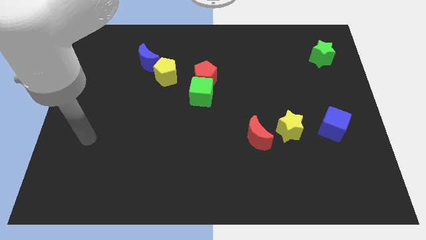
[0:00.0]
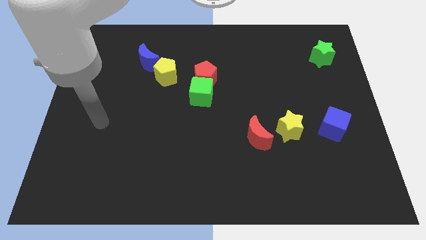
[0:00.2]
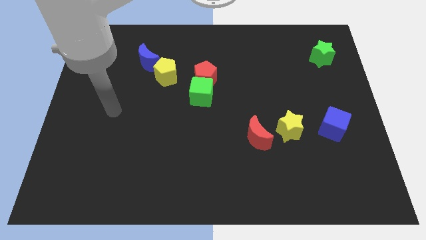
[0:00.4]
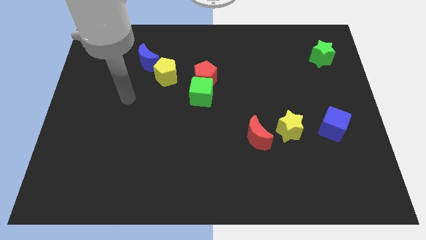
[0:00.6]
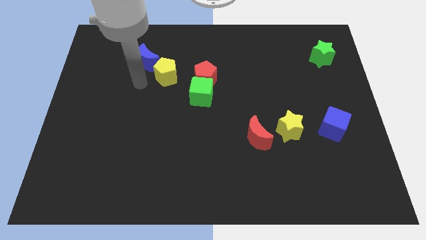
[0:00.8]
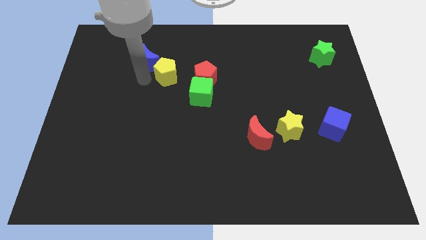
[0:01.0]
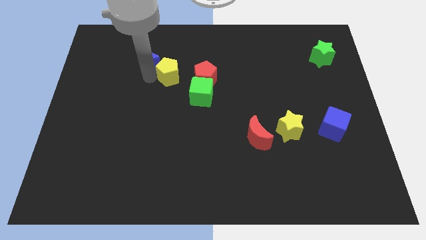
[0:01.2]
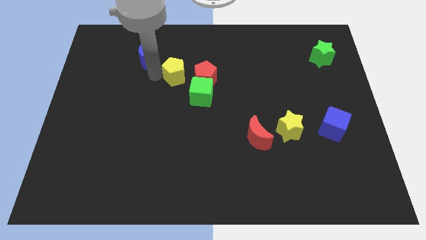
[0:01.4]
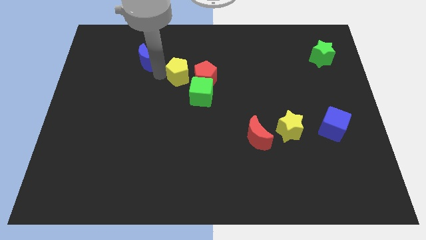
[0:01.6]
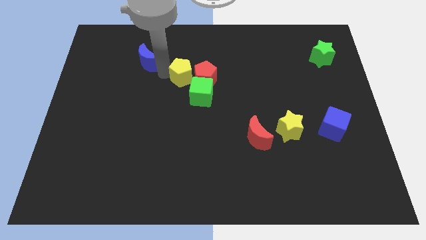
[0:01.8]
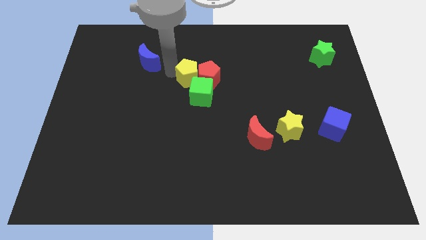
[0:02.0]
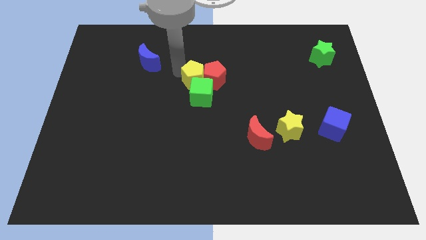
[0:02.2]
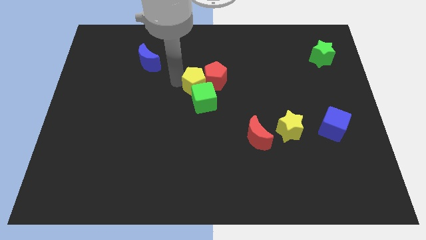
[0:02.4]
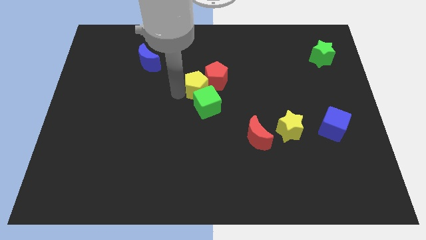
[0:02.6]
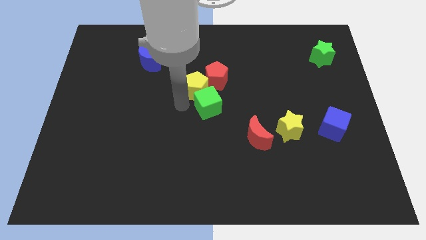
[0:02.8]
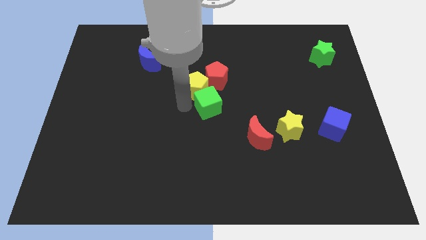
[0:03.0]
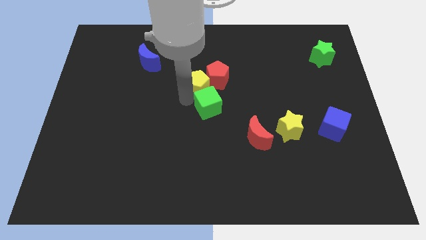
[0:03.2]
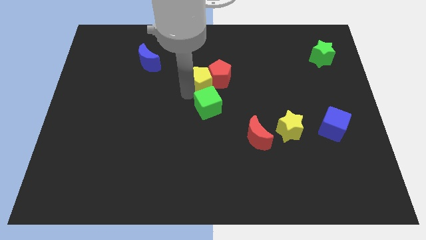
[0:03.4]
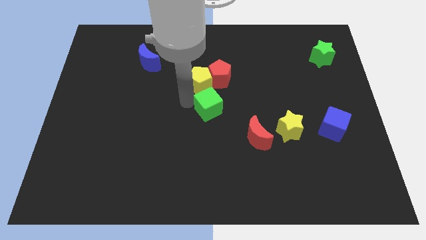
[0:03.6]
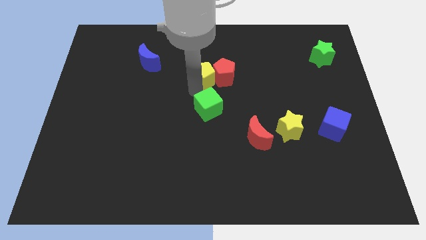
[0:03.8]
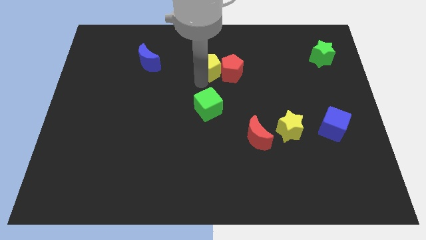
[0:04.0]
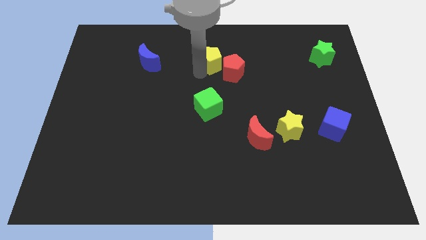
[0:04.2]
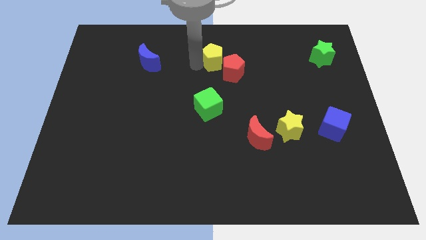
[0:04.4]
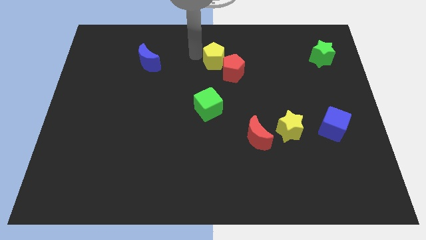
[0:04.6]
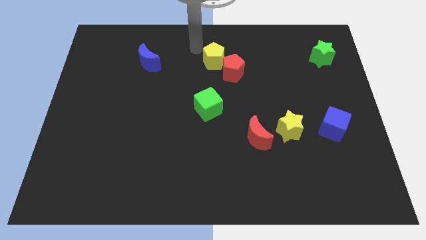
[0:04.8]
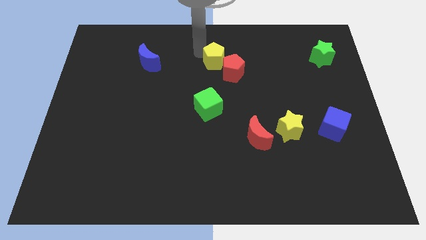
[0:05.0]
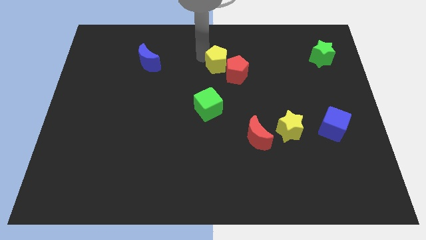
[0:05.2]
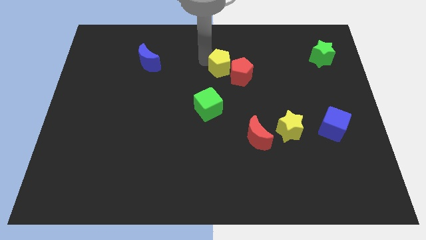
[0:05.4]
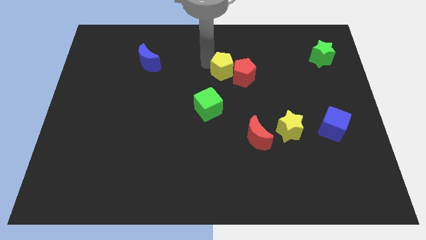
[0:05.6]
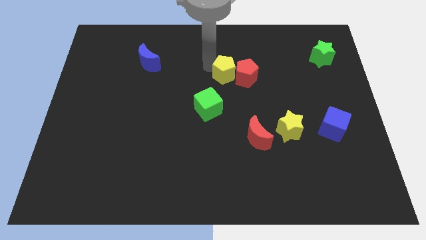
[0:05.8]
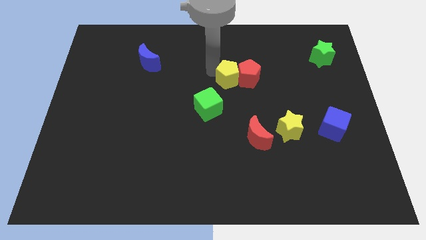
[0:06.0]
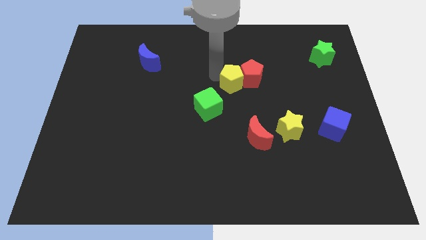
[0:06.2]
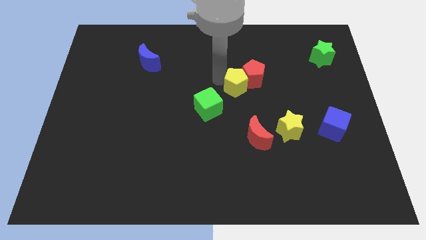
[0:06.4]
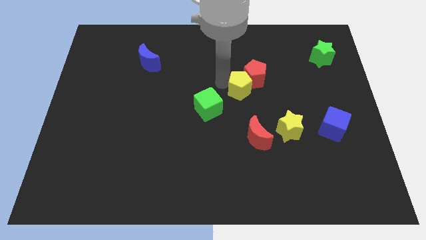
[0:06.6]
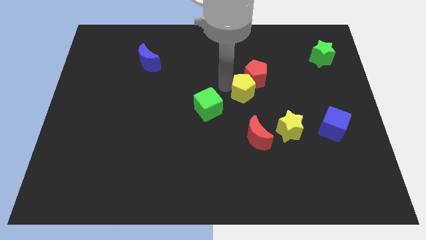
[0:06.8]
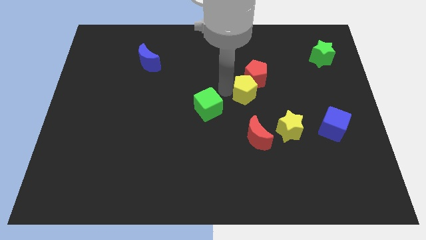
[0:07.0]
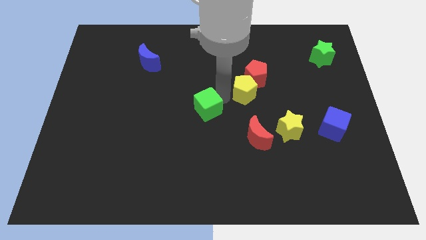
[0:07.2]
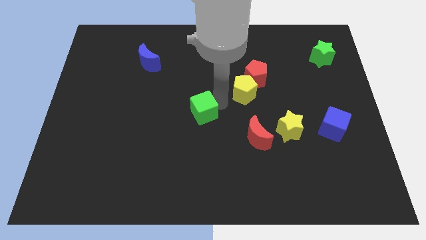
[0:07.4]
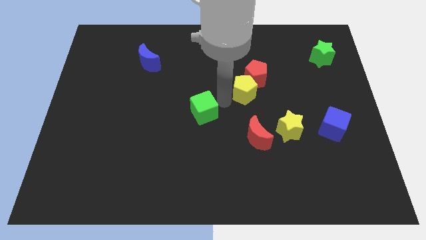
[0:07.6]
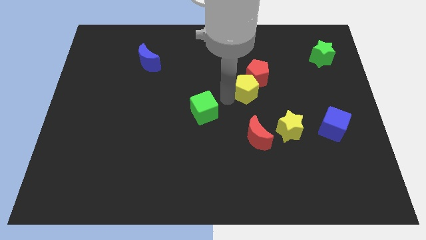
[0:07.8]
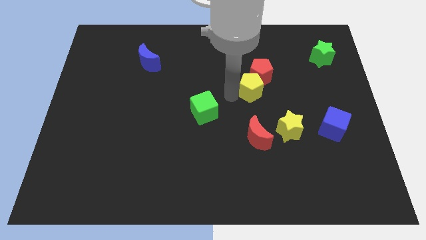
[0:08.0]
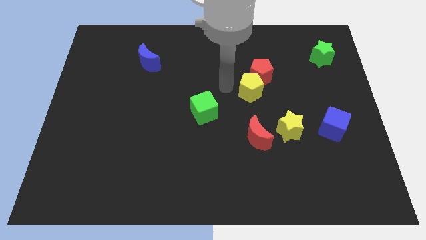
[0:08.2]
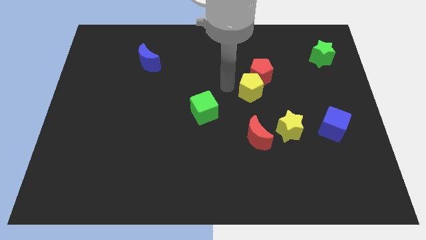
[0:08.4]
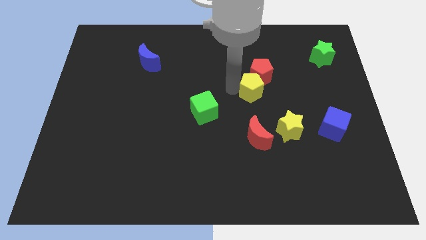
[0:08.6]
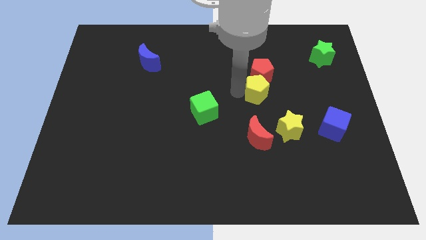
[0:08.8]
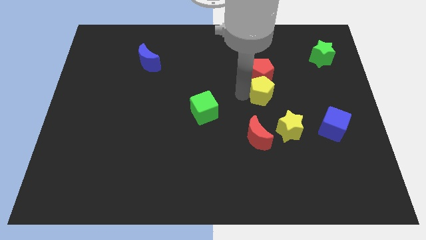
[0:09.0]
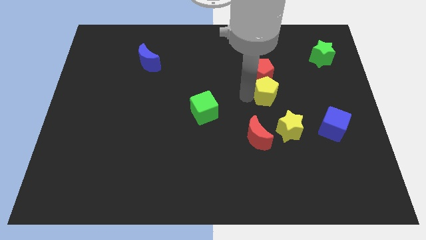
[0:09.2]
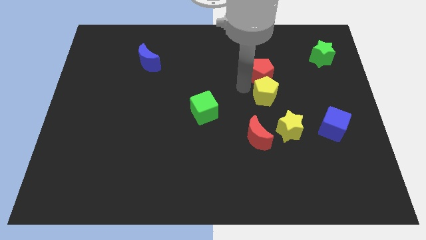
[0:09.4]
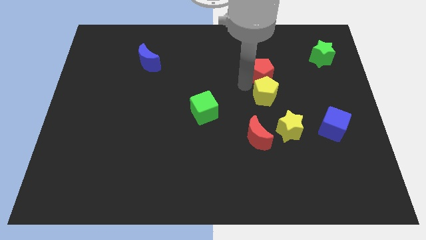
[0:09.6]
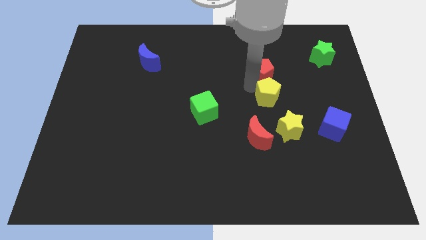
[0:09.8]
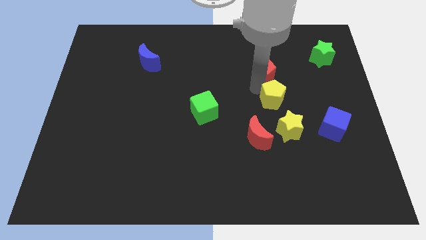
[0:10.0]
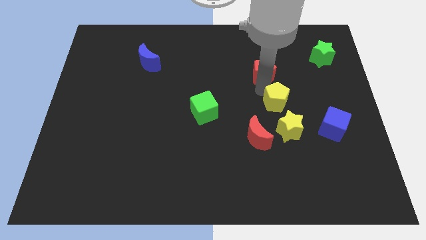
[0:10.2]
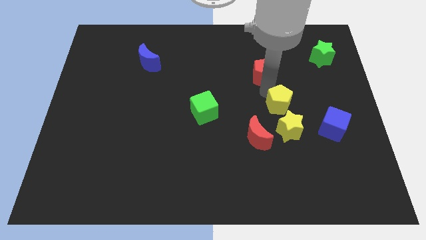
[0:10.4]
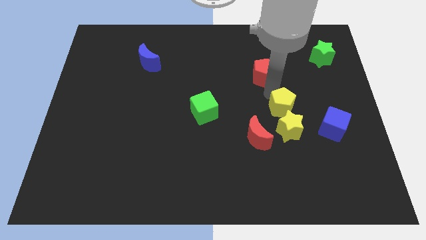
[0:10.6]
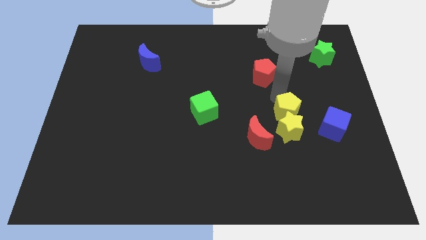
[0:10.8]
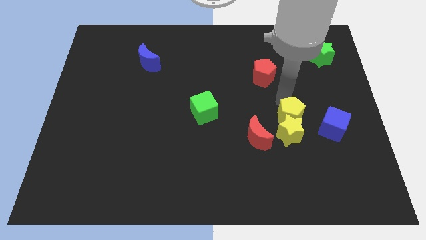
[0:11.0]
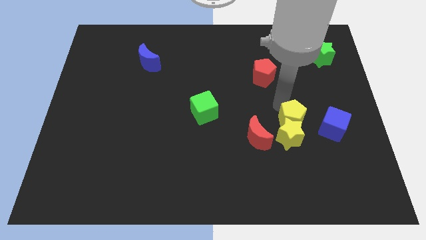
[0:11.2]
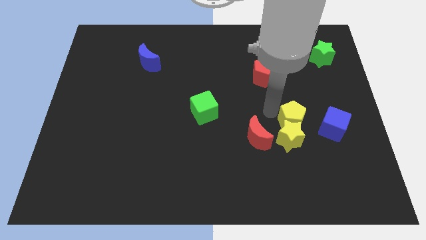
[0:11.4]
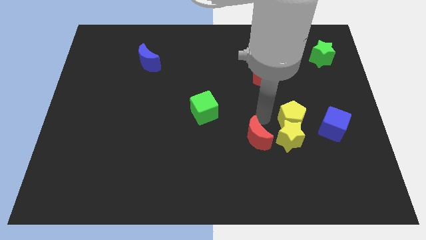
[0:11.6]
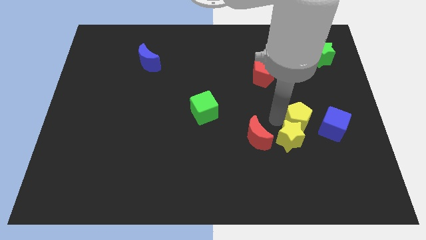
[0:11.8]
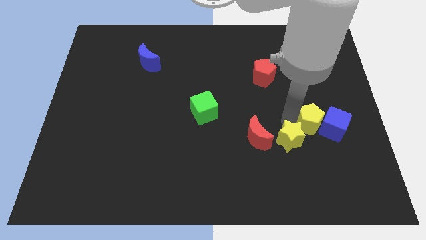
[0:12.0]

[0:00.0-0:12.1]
push the yellow pentagon to the blue cube

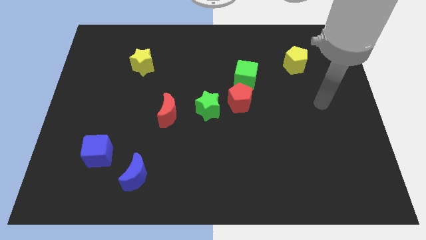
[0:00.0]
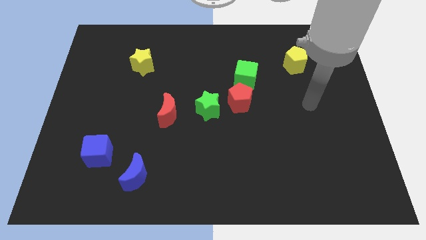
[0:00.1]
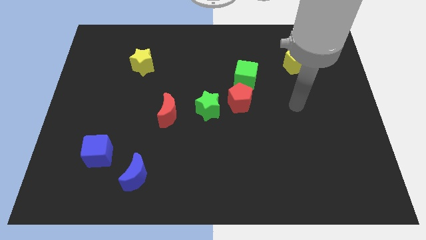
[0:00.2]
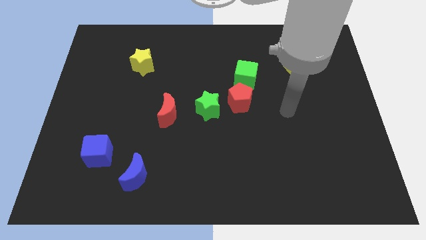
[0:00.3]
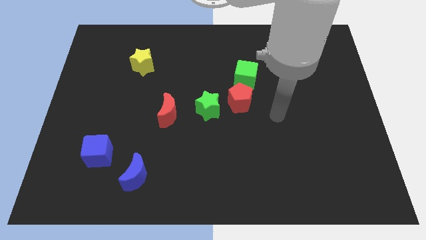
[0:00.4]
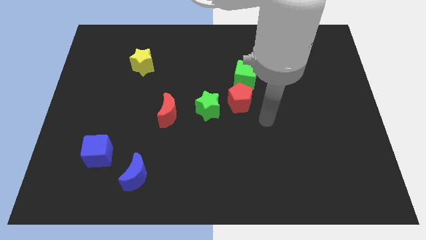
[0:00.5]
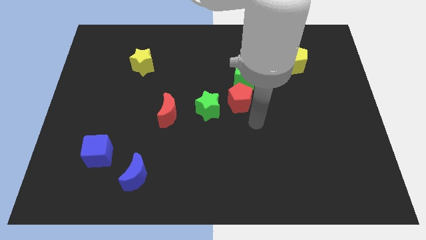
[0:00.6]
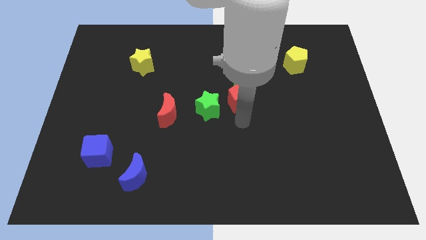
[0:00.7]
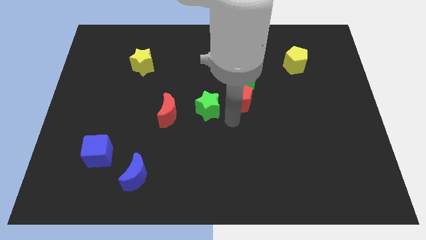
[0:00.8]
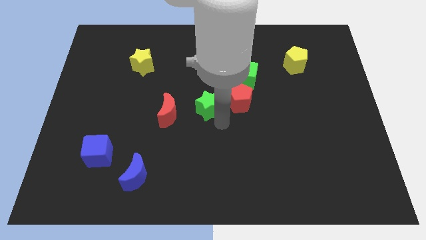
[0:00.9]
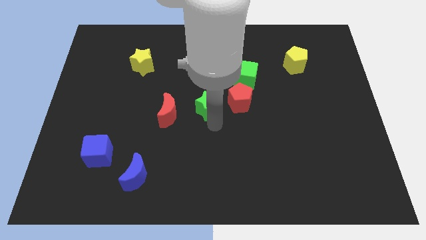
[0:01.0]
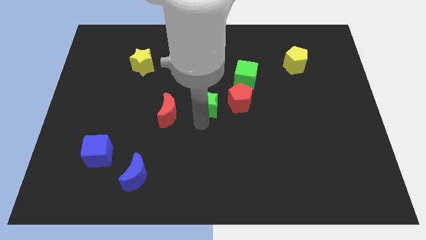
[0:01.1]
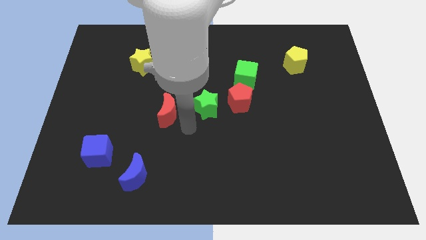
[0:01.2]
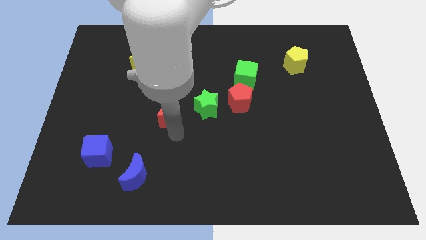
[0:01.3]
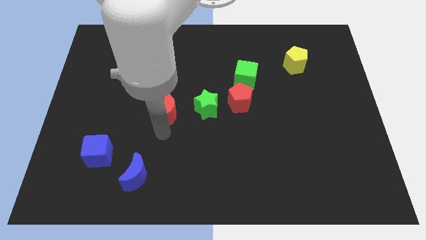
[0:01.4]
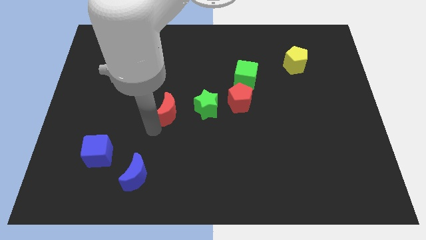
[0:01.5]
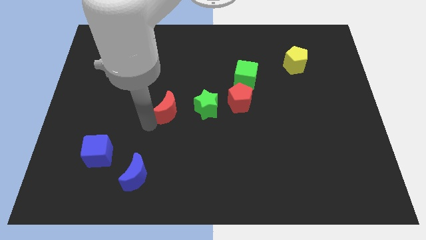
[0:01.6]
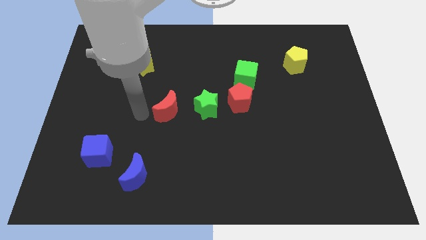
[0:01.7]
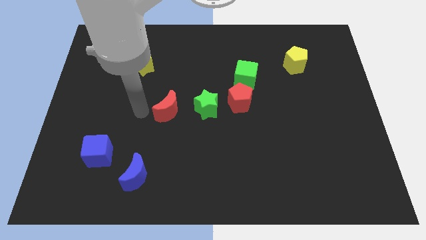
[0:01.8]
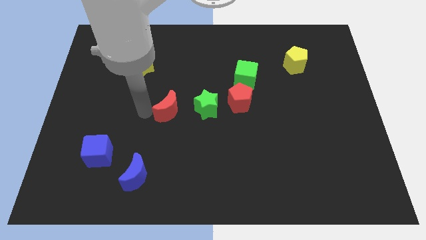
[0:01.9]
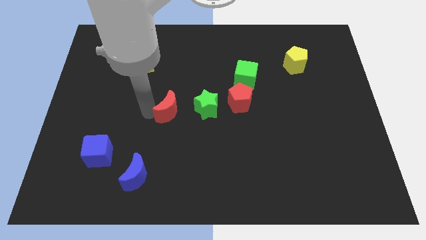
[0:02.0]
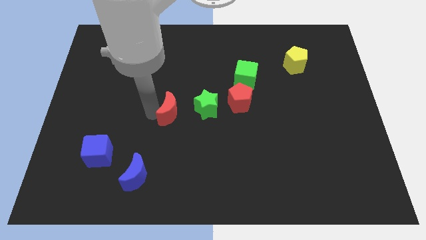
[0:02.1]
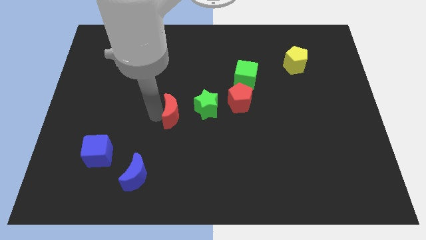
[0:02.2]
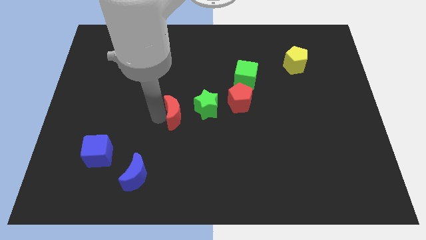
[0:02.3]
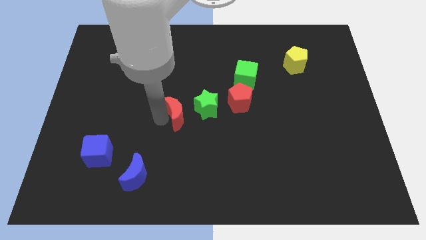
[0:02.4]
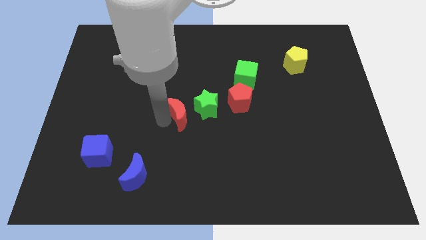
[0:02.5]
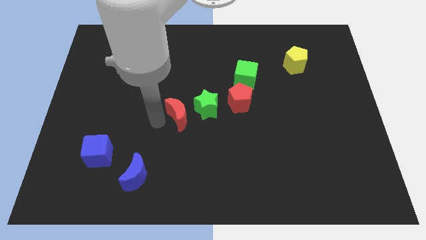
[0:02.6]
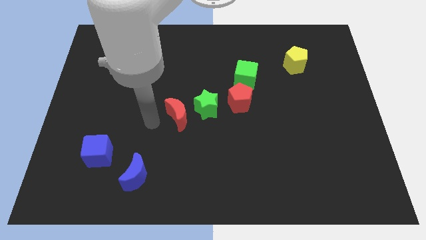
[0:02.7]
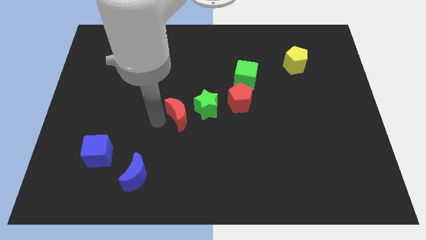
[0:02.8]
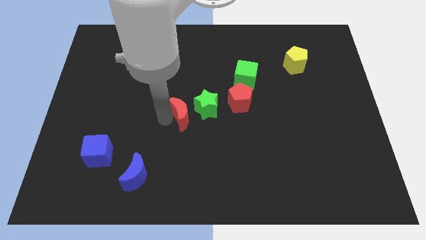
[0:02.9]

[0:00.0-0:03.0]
move the red moon close to the green star
